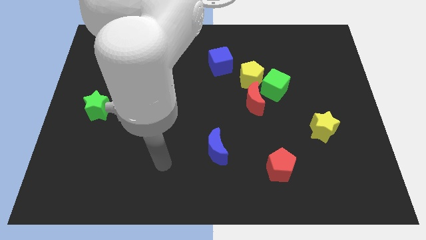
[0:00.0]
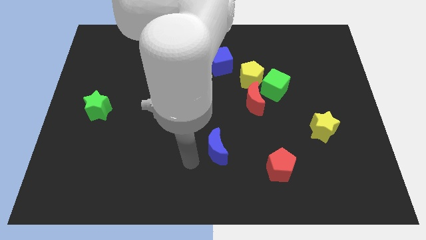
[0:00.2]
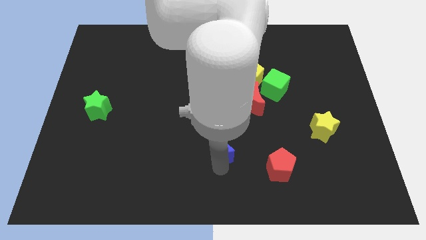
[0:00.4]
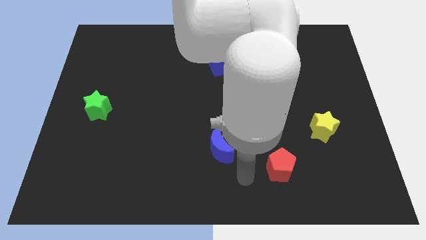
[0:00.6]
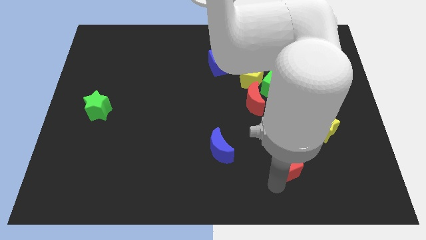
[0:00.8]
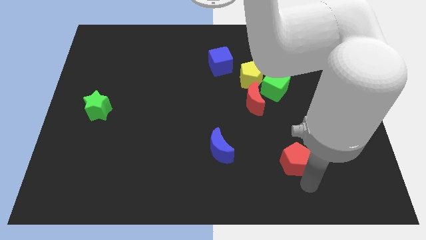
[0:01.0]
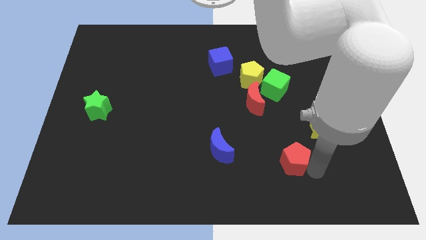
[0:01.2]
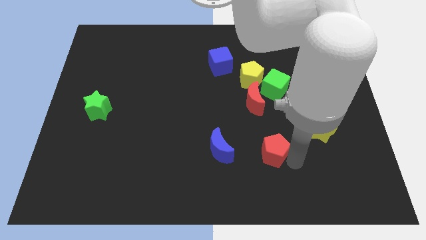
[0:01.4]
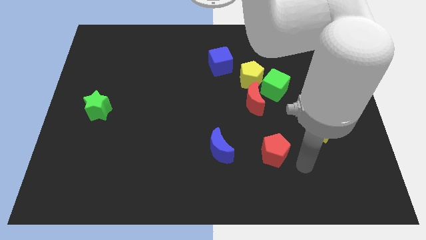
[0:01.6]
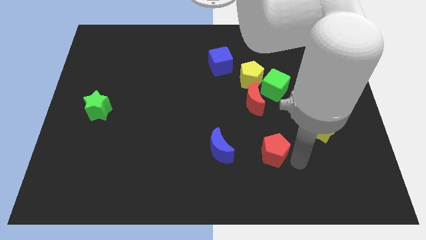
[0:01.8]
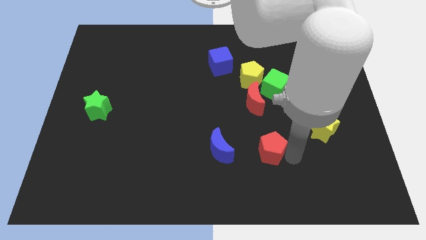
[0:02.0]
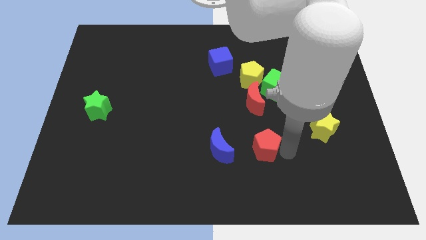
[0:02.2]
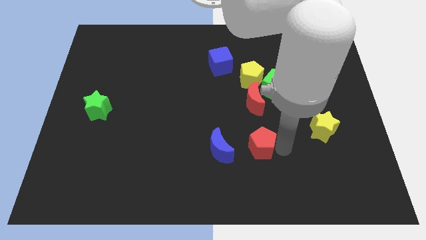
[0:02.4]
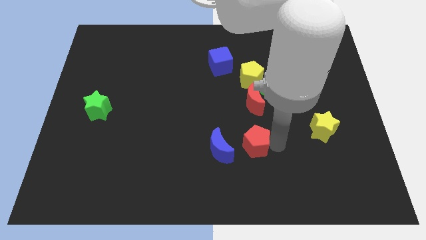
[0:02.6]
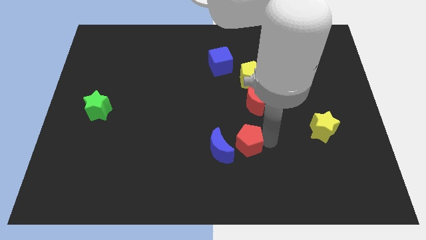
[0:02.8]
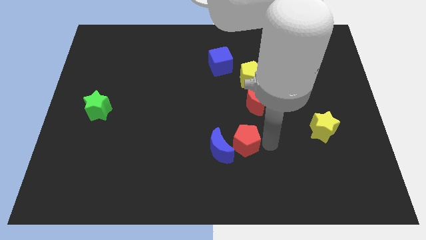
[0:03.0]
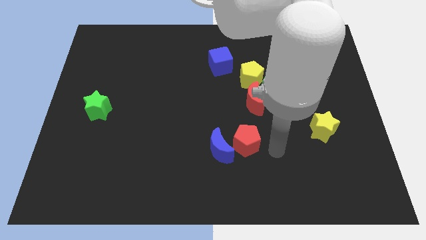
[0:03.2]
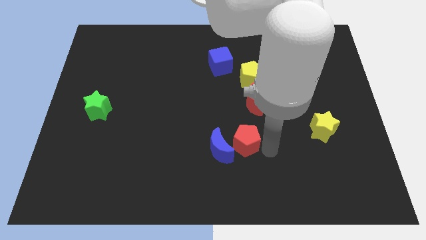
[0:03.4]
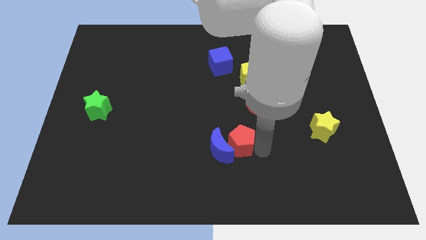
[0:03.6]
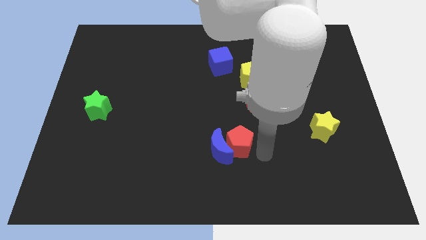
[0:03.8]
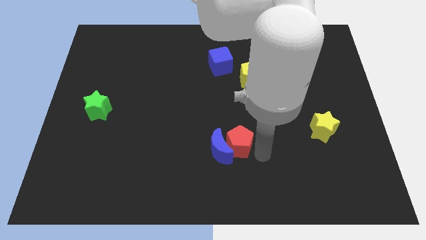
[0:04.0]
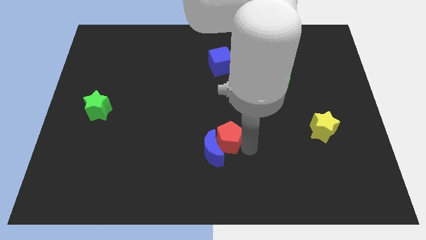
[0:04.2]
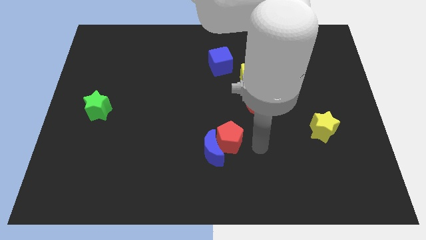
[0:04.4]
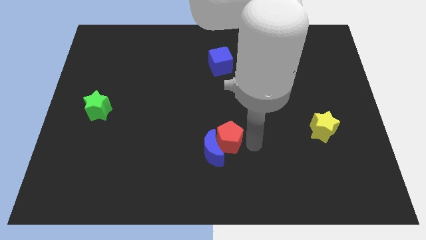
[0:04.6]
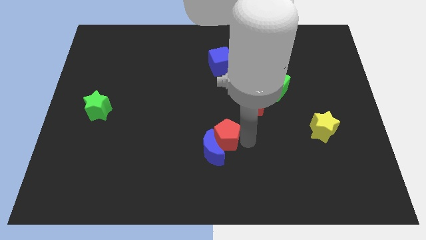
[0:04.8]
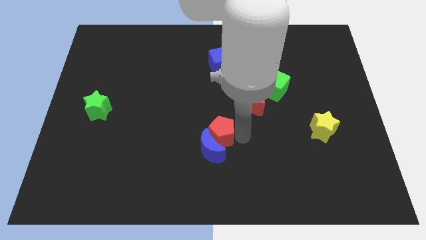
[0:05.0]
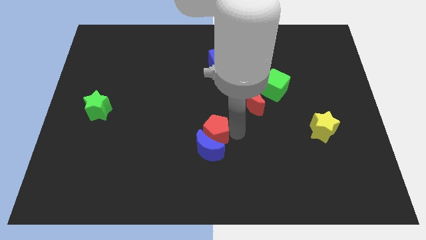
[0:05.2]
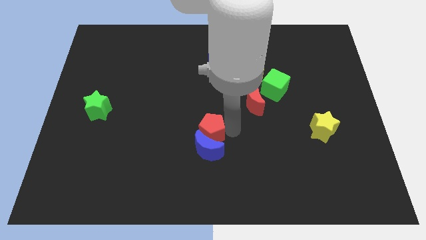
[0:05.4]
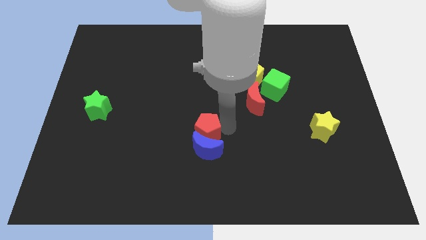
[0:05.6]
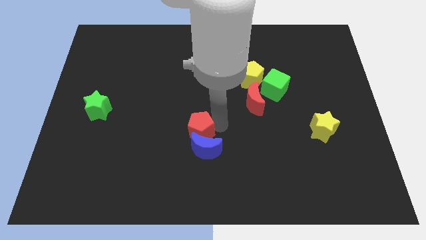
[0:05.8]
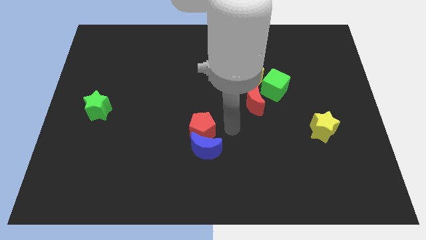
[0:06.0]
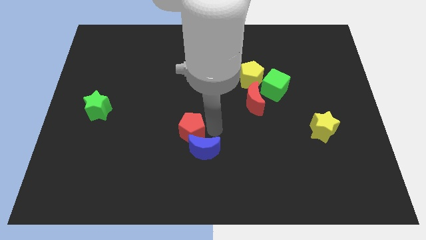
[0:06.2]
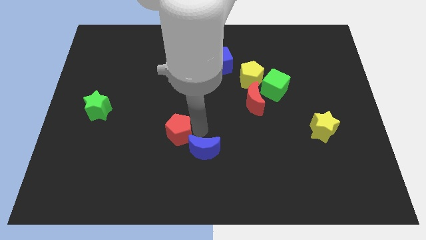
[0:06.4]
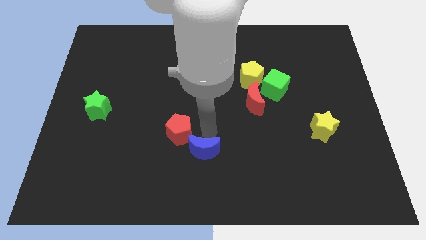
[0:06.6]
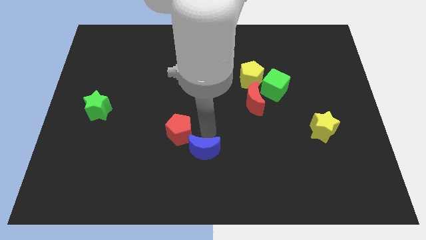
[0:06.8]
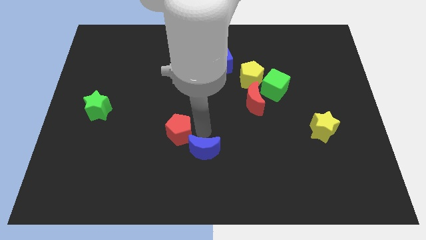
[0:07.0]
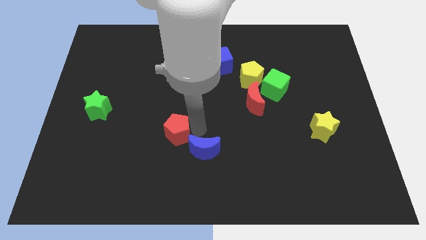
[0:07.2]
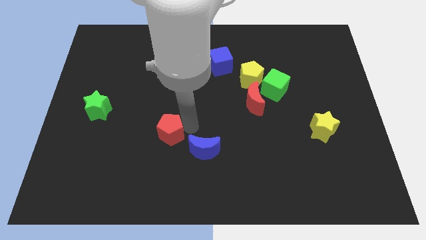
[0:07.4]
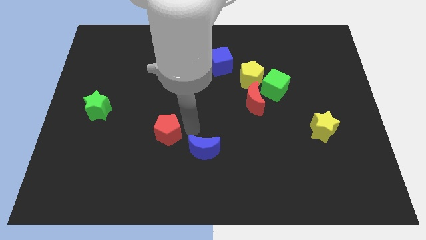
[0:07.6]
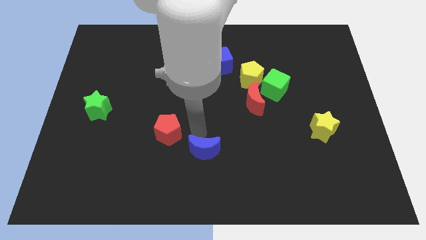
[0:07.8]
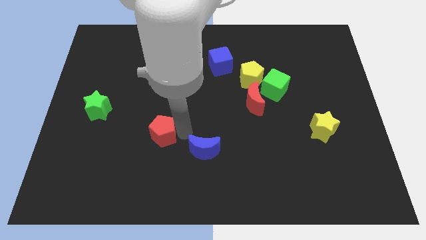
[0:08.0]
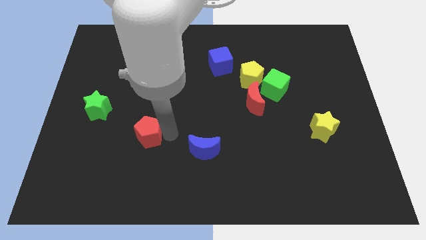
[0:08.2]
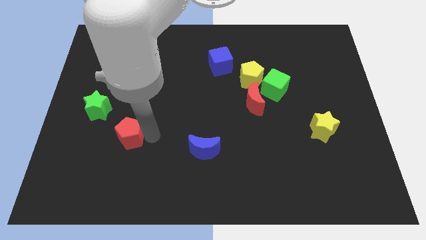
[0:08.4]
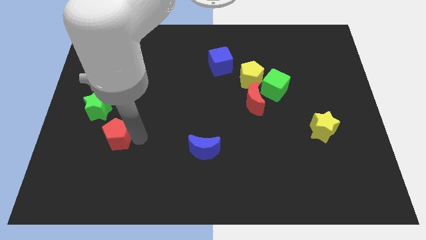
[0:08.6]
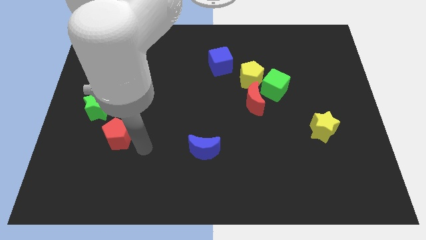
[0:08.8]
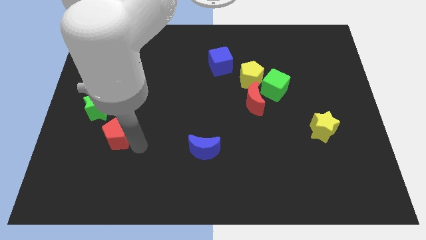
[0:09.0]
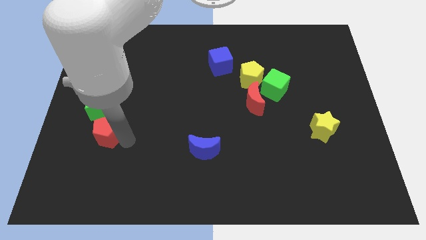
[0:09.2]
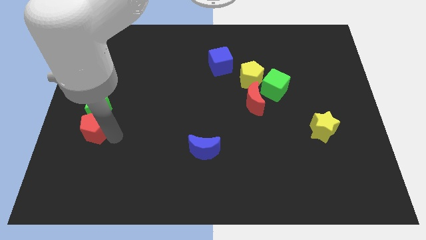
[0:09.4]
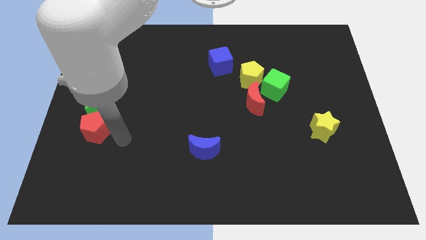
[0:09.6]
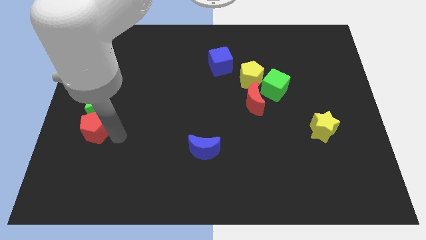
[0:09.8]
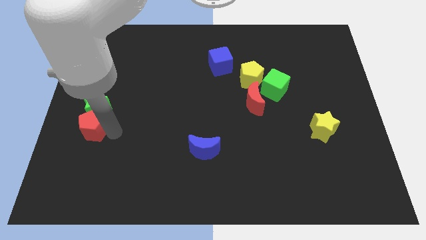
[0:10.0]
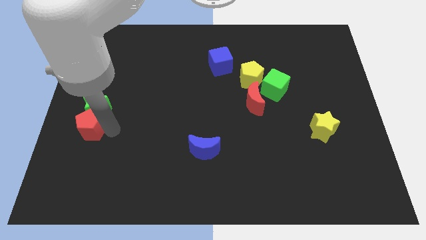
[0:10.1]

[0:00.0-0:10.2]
slide the red pentagon to the left side of the board

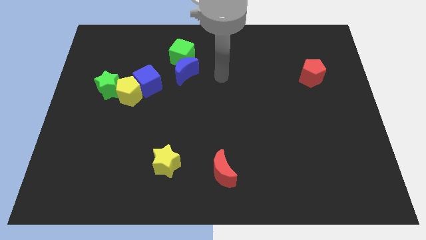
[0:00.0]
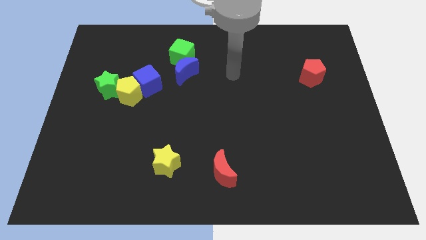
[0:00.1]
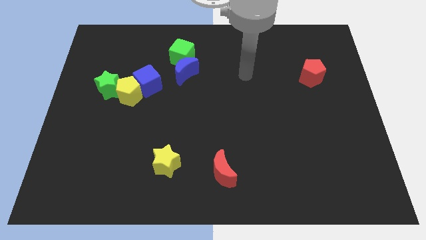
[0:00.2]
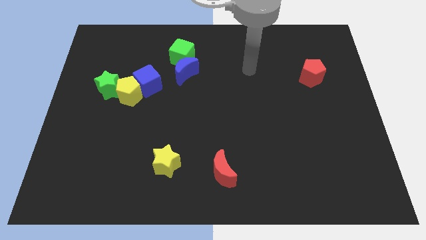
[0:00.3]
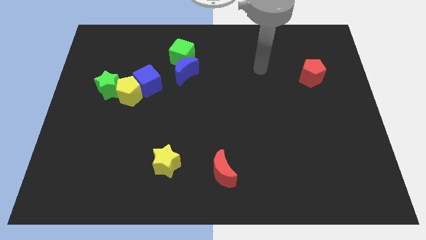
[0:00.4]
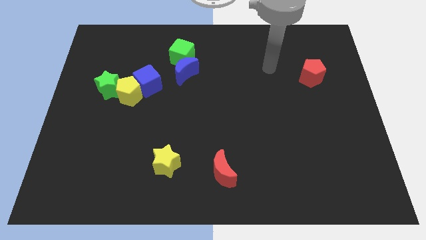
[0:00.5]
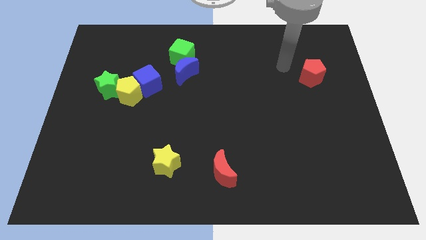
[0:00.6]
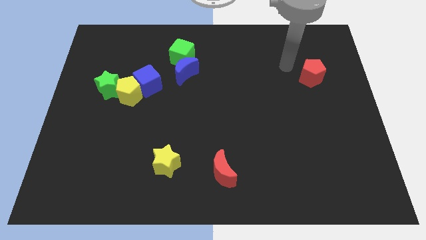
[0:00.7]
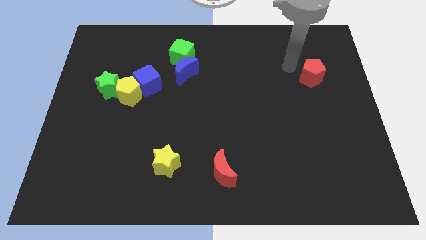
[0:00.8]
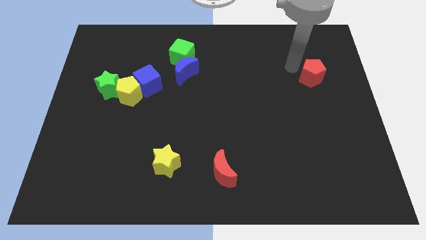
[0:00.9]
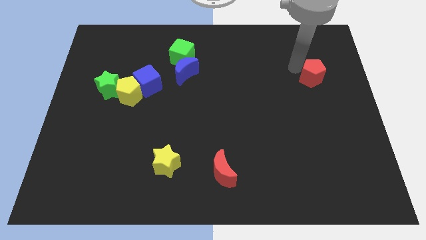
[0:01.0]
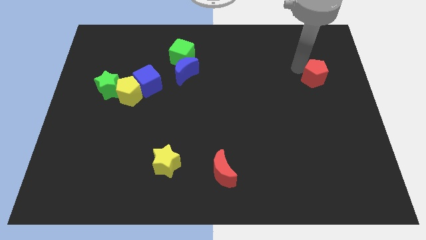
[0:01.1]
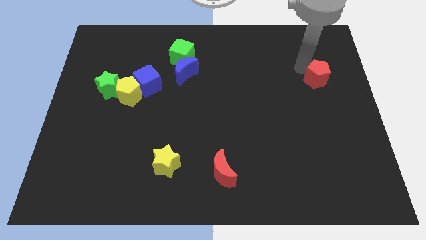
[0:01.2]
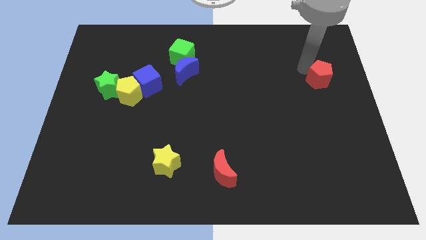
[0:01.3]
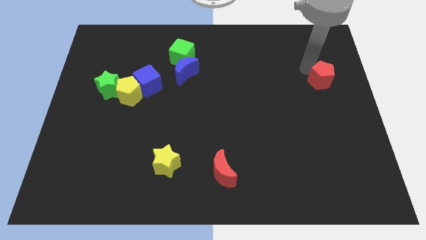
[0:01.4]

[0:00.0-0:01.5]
put the red pentagon to the right side

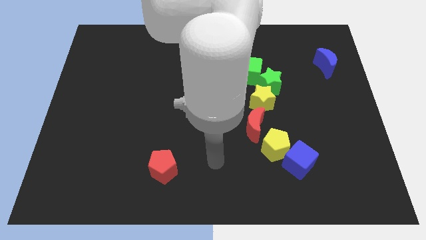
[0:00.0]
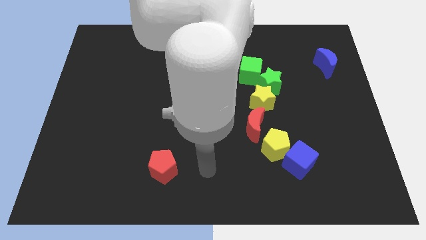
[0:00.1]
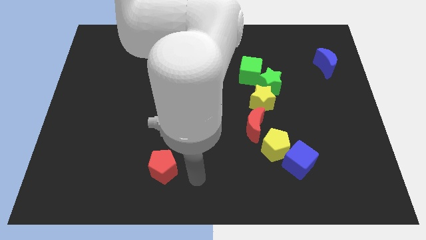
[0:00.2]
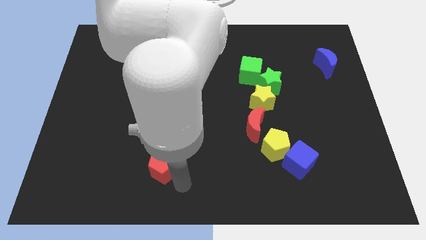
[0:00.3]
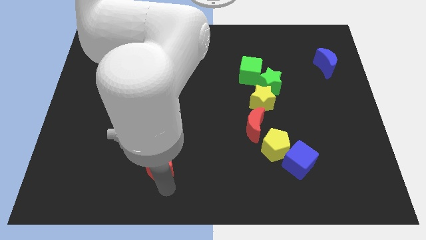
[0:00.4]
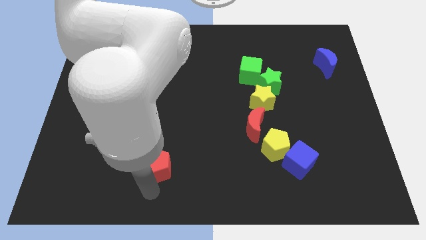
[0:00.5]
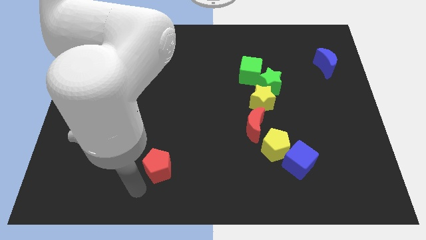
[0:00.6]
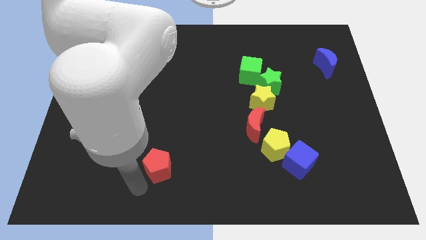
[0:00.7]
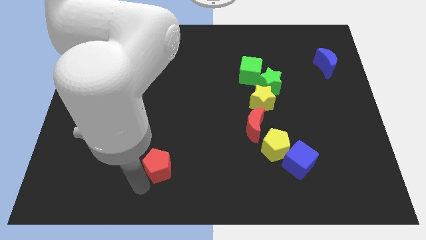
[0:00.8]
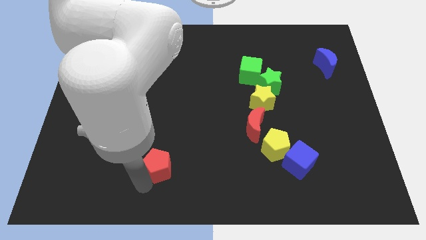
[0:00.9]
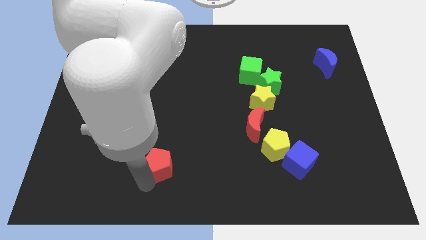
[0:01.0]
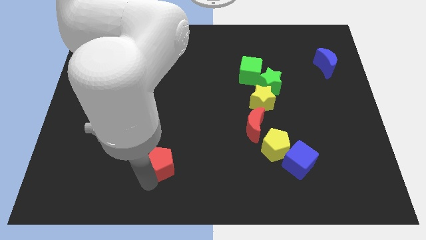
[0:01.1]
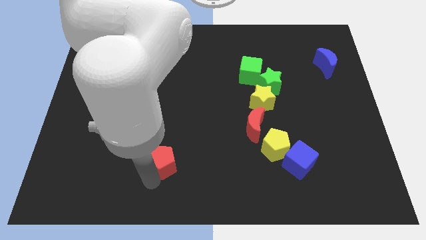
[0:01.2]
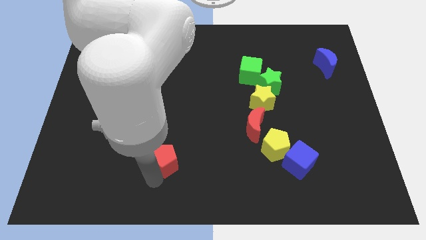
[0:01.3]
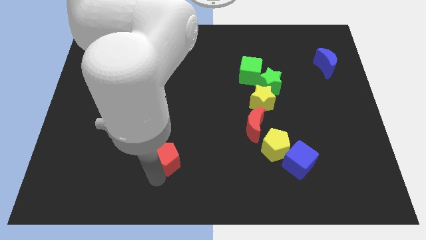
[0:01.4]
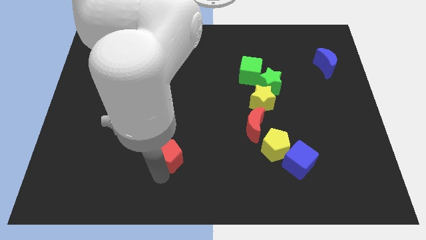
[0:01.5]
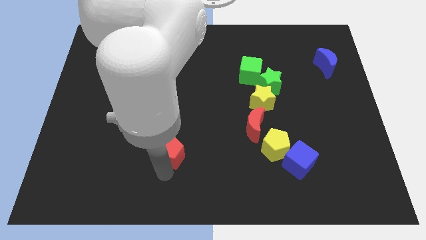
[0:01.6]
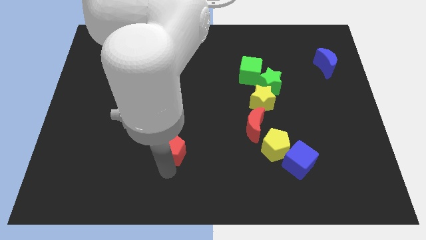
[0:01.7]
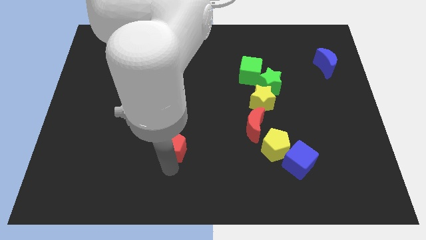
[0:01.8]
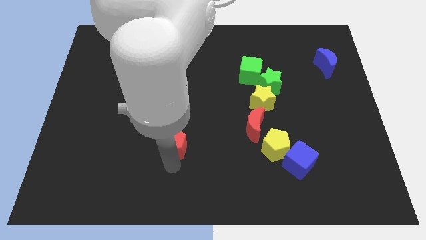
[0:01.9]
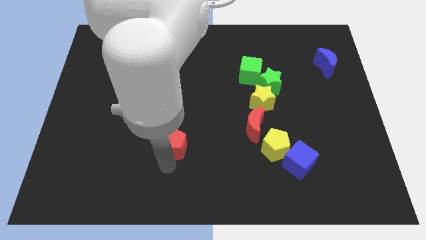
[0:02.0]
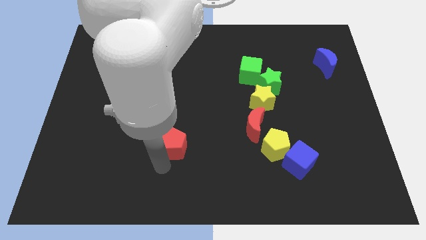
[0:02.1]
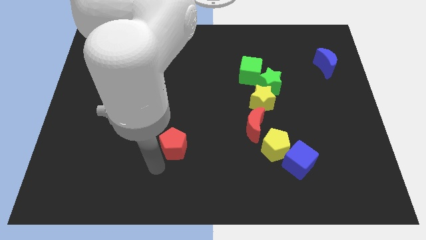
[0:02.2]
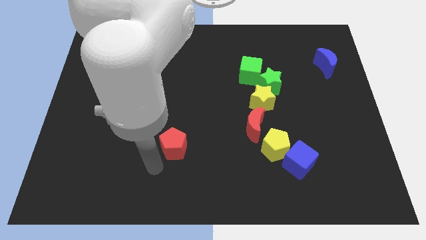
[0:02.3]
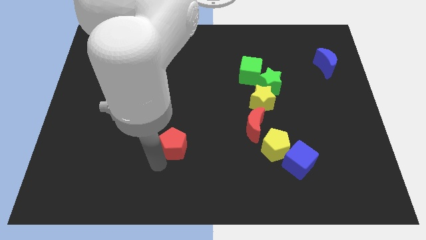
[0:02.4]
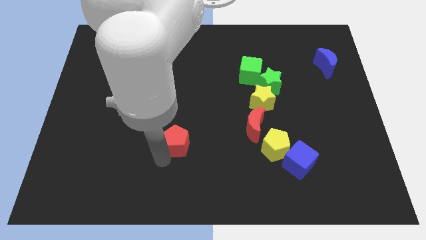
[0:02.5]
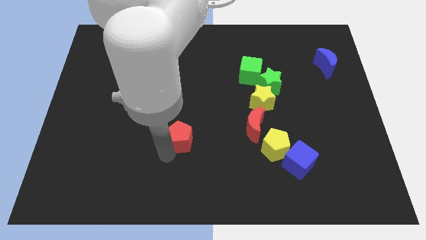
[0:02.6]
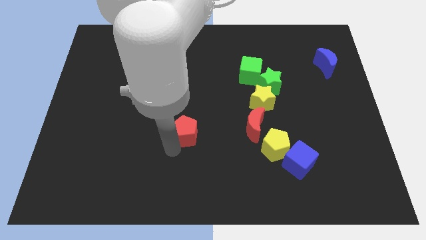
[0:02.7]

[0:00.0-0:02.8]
move the red pentagon to the center
